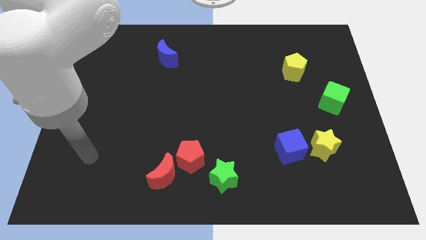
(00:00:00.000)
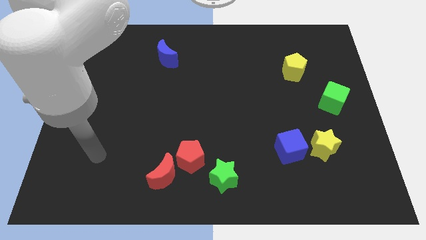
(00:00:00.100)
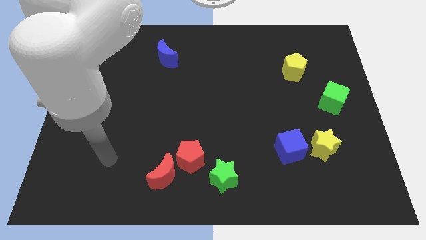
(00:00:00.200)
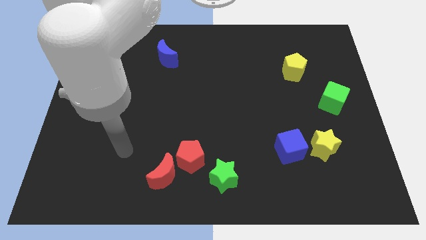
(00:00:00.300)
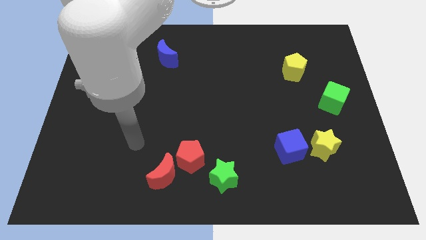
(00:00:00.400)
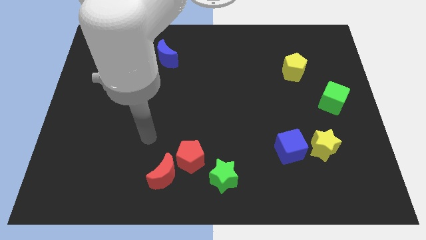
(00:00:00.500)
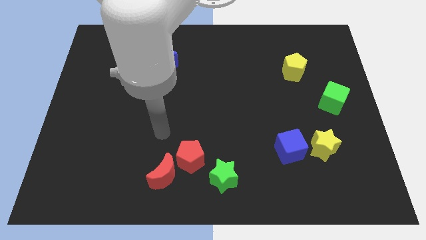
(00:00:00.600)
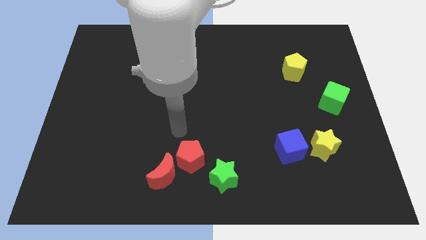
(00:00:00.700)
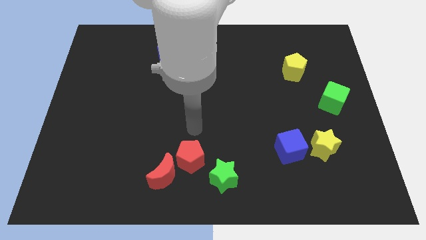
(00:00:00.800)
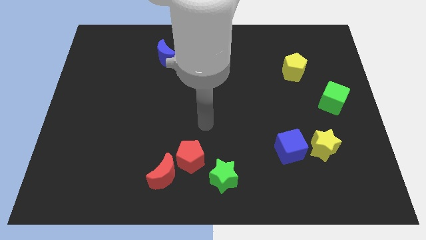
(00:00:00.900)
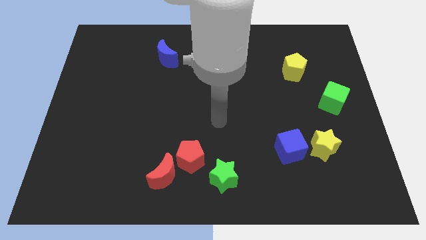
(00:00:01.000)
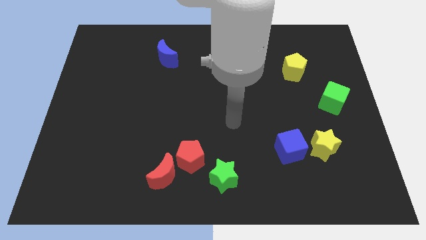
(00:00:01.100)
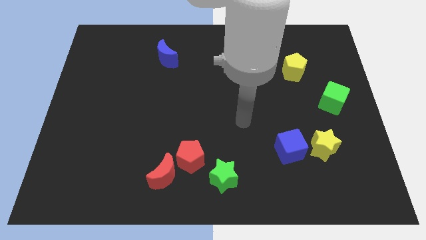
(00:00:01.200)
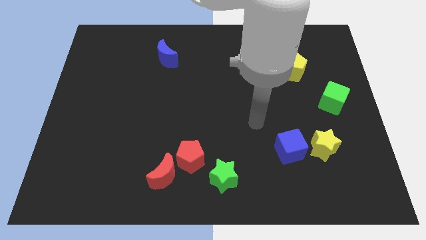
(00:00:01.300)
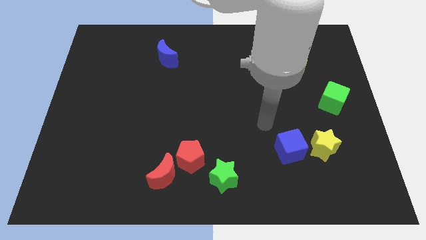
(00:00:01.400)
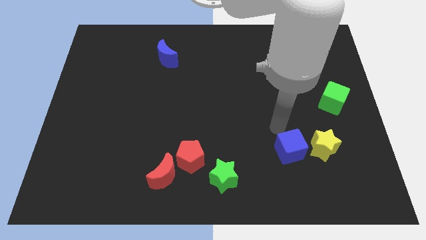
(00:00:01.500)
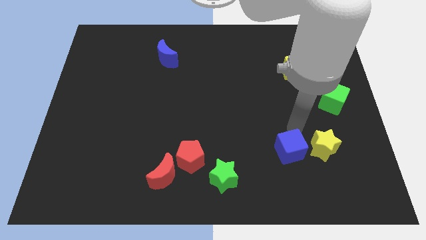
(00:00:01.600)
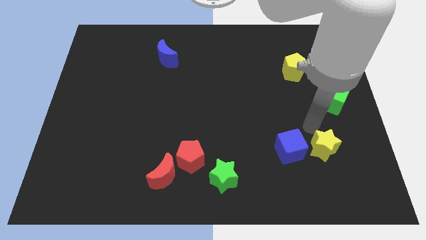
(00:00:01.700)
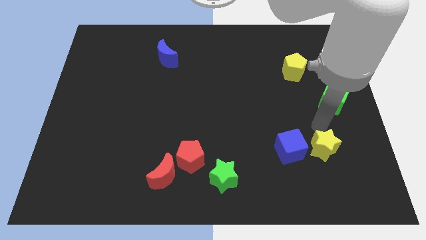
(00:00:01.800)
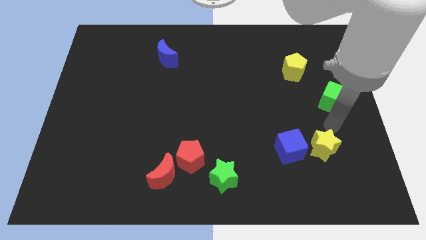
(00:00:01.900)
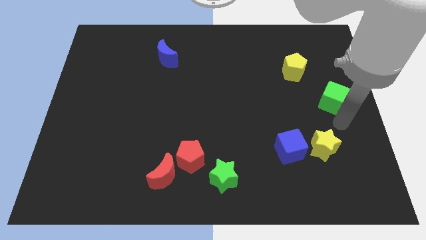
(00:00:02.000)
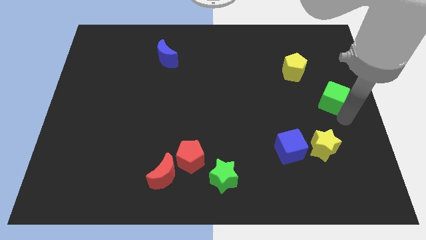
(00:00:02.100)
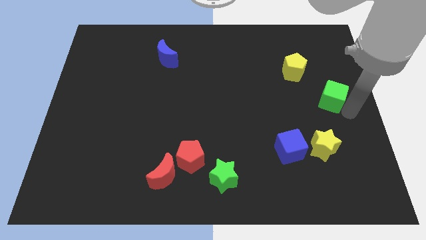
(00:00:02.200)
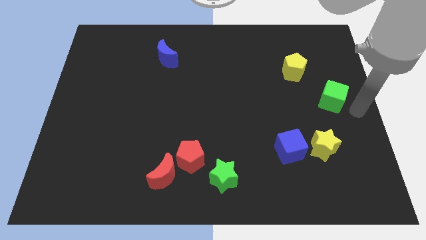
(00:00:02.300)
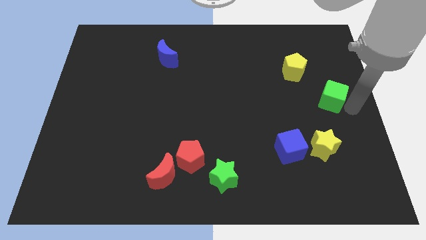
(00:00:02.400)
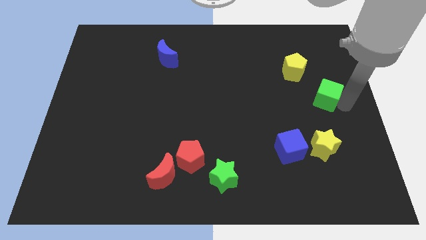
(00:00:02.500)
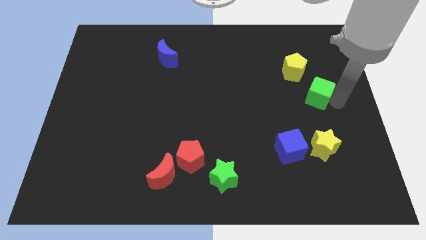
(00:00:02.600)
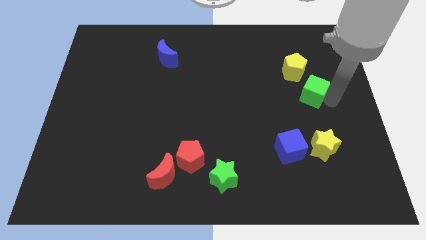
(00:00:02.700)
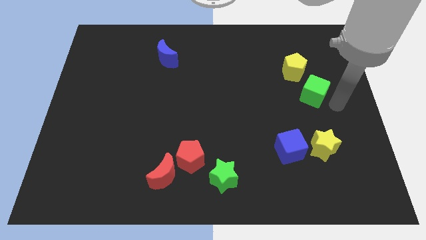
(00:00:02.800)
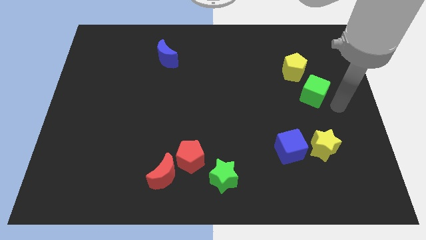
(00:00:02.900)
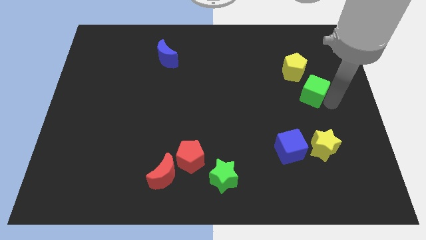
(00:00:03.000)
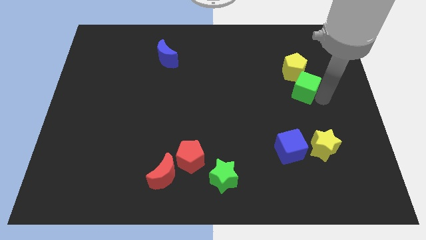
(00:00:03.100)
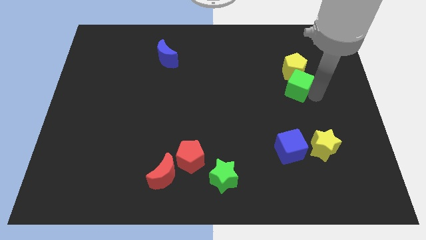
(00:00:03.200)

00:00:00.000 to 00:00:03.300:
move the green cube a bit upwards and to the left diagonally

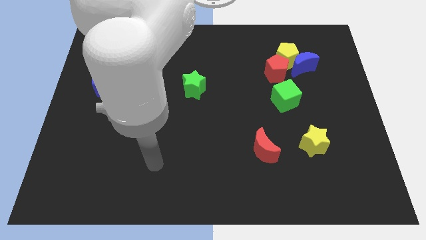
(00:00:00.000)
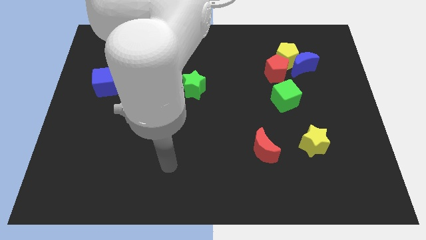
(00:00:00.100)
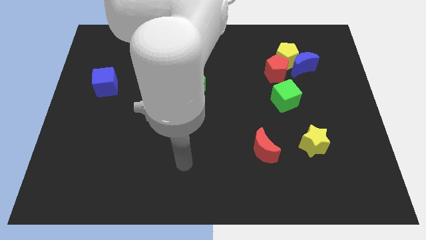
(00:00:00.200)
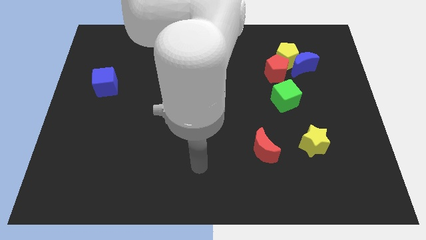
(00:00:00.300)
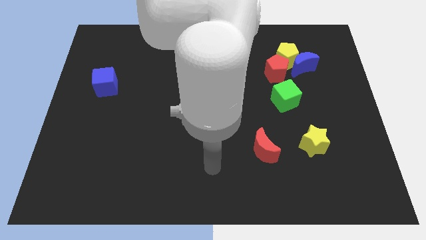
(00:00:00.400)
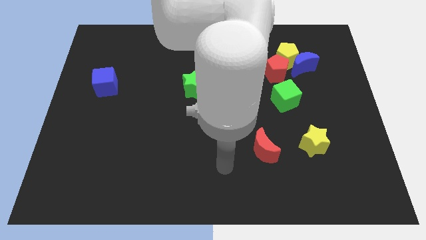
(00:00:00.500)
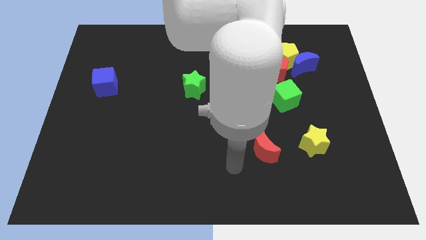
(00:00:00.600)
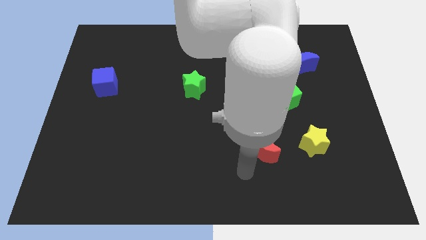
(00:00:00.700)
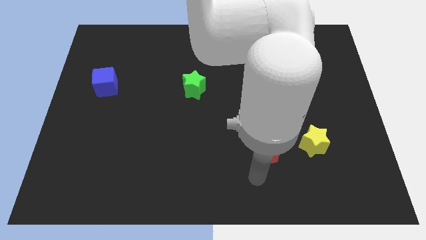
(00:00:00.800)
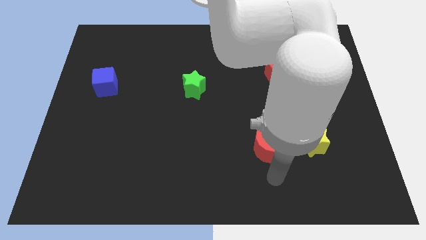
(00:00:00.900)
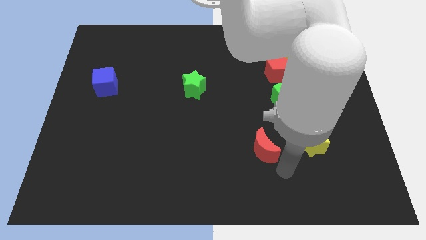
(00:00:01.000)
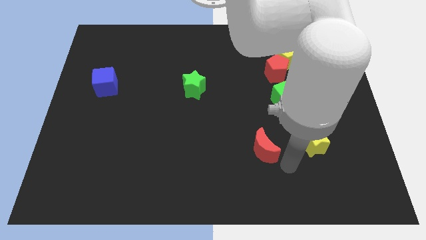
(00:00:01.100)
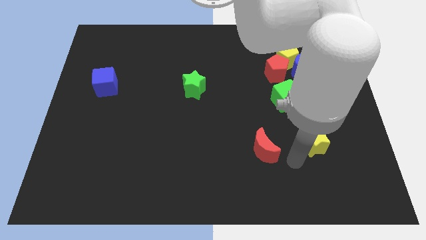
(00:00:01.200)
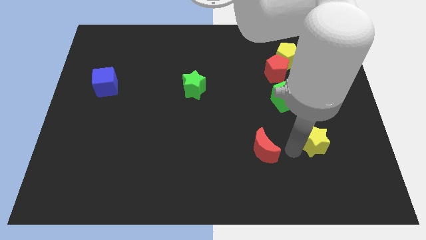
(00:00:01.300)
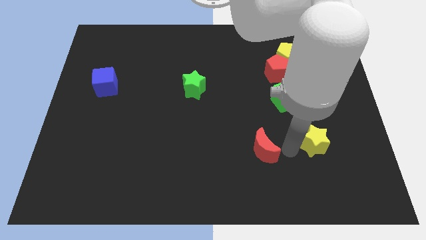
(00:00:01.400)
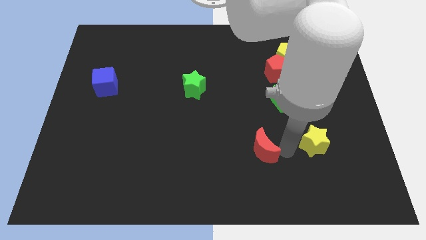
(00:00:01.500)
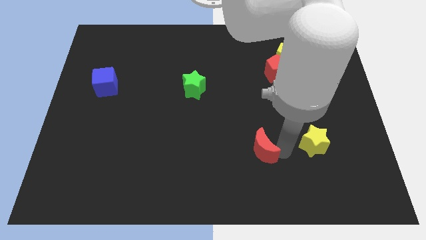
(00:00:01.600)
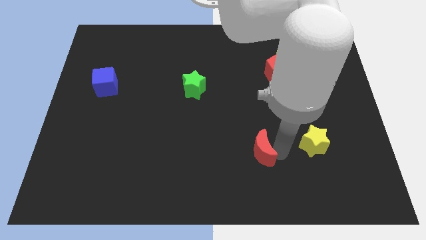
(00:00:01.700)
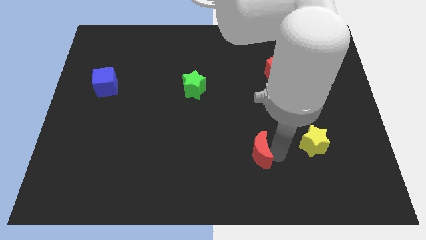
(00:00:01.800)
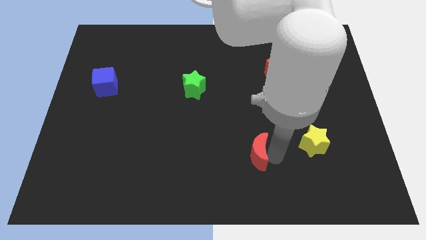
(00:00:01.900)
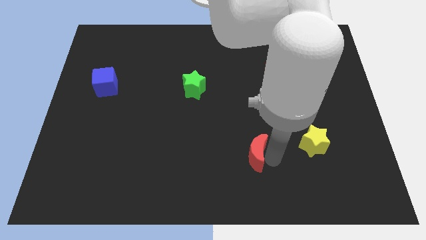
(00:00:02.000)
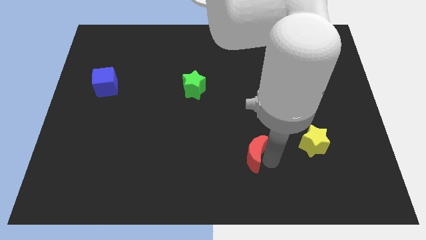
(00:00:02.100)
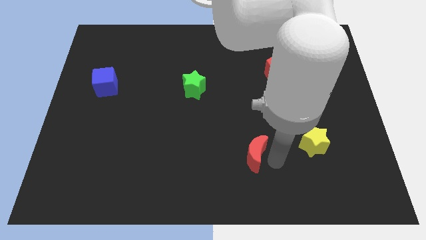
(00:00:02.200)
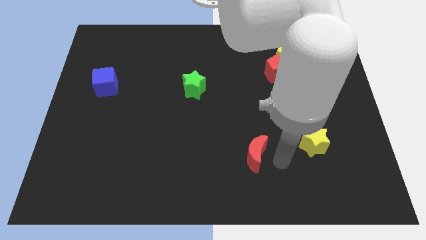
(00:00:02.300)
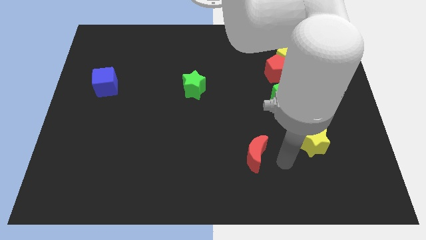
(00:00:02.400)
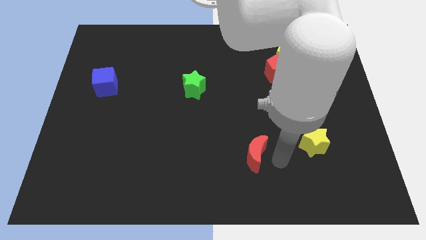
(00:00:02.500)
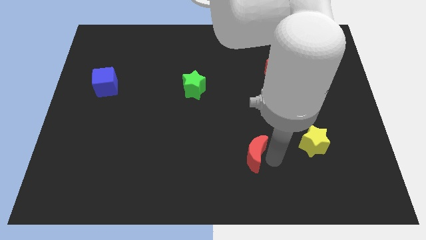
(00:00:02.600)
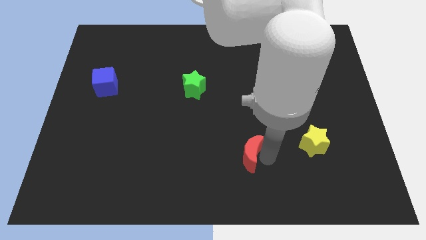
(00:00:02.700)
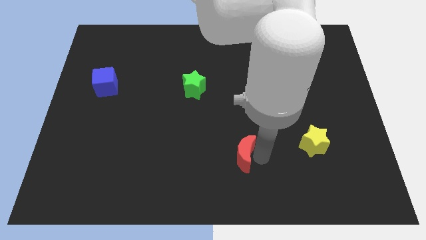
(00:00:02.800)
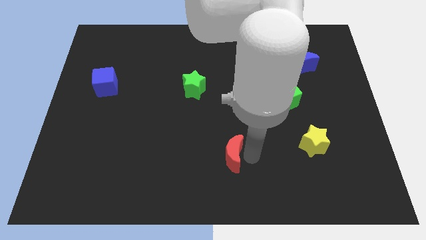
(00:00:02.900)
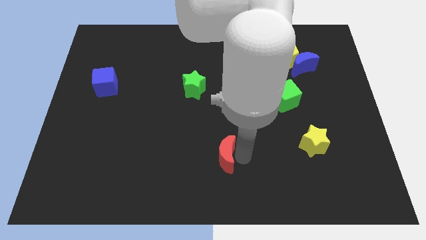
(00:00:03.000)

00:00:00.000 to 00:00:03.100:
move the red moon a bit to the left

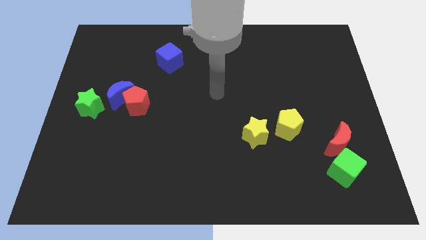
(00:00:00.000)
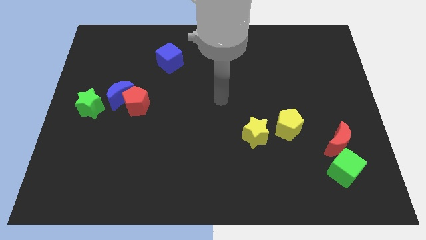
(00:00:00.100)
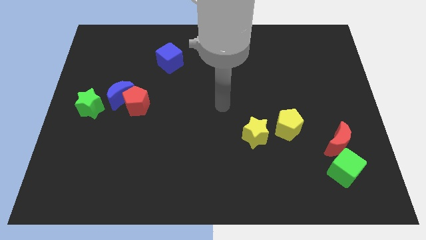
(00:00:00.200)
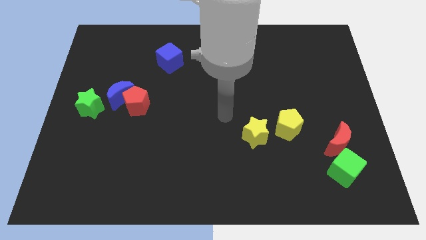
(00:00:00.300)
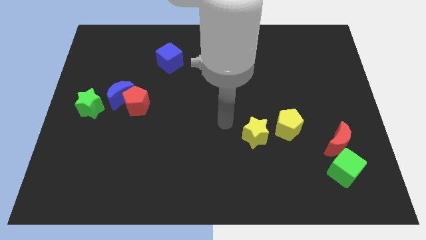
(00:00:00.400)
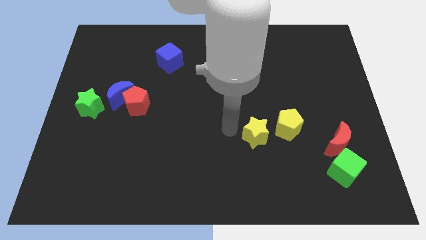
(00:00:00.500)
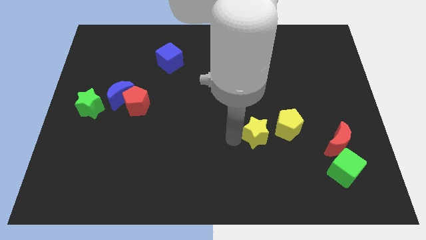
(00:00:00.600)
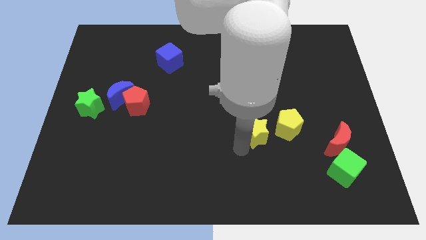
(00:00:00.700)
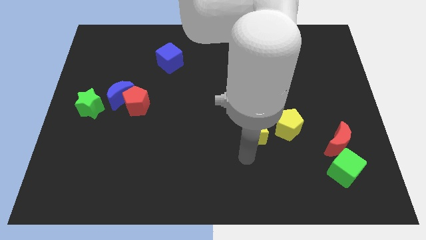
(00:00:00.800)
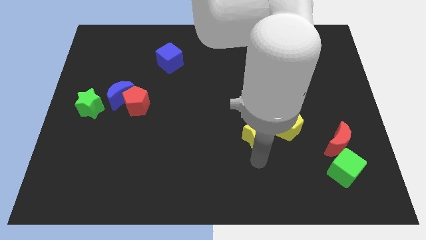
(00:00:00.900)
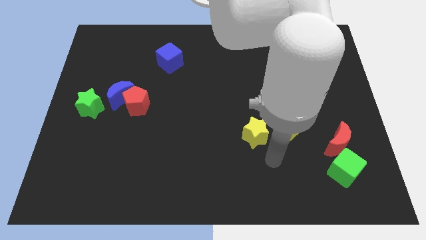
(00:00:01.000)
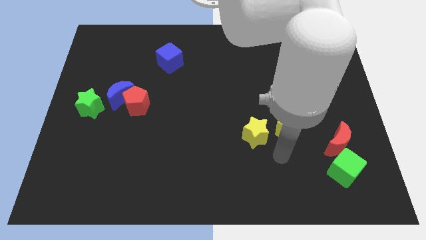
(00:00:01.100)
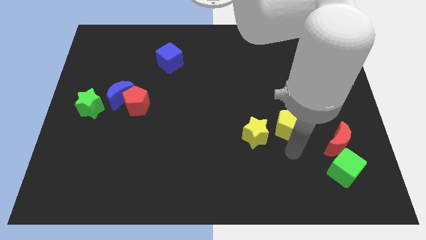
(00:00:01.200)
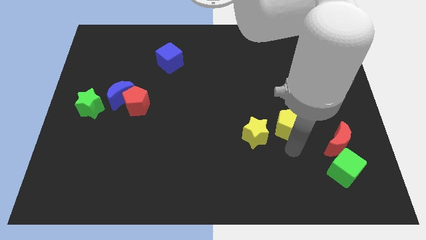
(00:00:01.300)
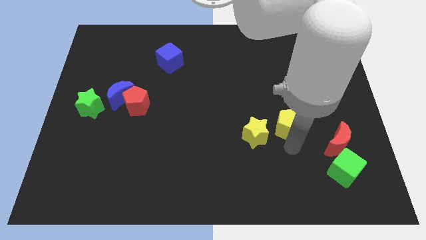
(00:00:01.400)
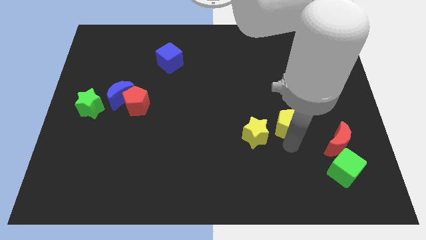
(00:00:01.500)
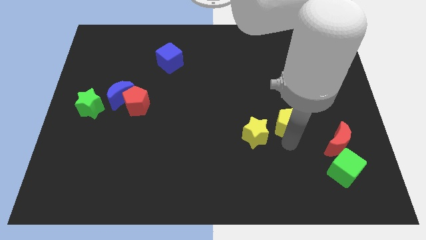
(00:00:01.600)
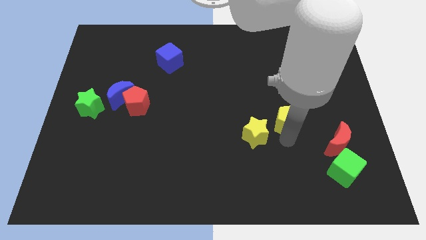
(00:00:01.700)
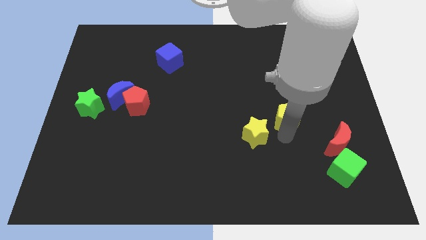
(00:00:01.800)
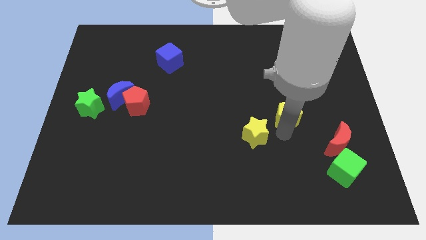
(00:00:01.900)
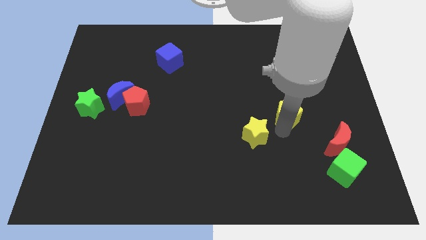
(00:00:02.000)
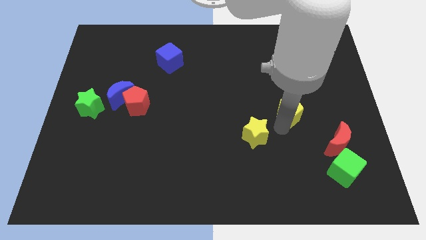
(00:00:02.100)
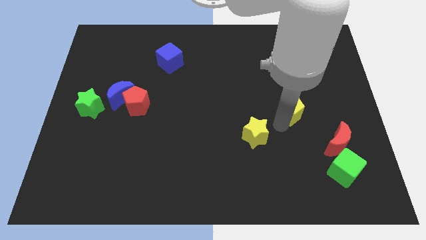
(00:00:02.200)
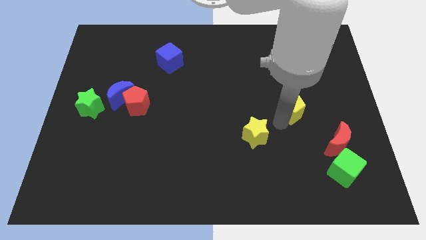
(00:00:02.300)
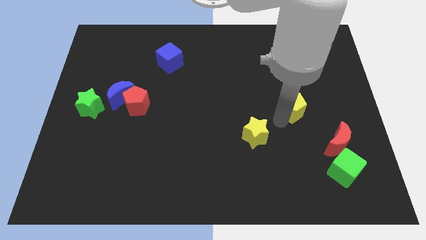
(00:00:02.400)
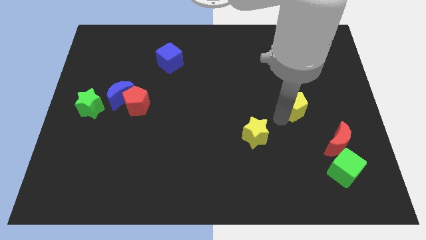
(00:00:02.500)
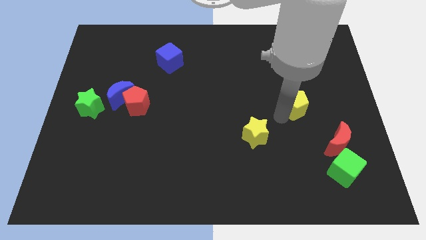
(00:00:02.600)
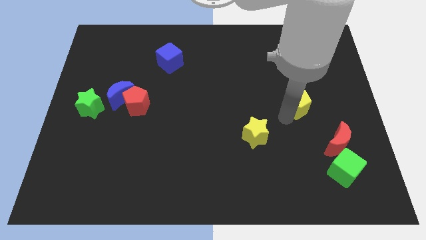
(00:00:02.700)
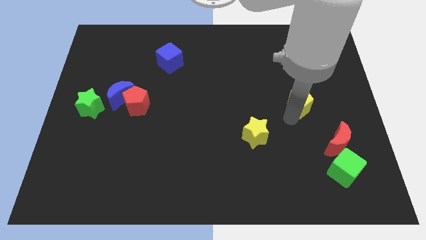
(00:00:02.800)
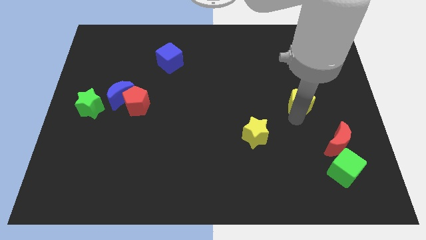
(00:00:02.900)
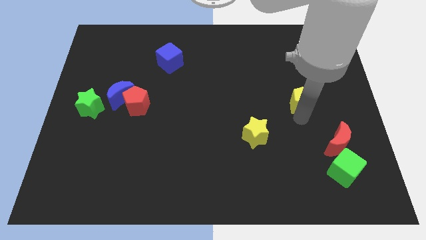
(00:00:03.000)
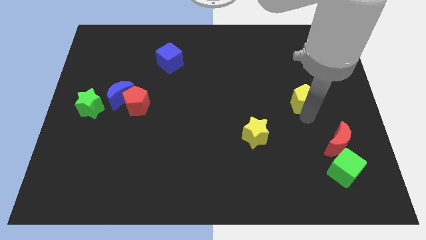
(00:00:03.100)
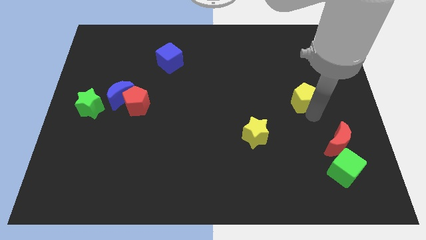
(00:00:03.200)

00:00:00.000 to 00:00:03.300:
slide the yellow pentagon up a little
